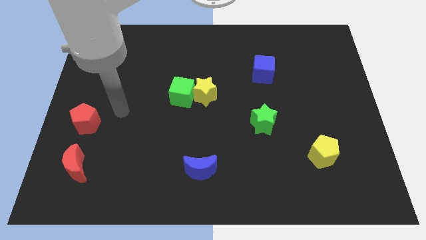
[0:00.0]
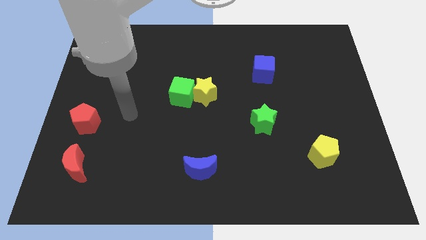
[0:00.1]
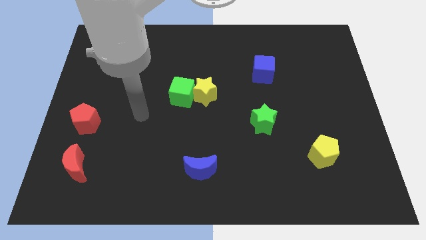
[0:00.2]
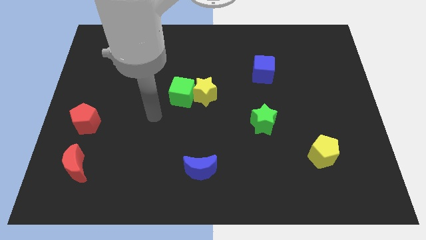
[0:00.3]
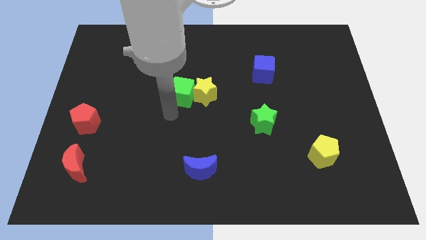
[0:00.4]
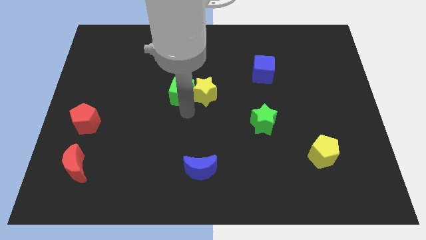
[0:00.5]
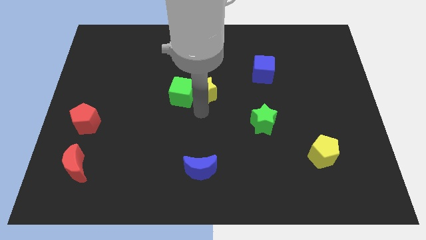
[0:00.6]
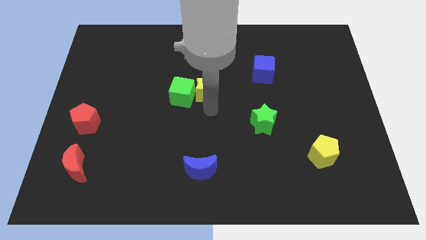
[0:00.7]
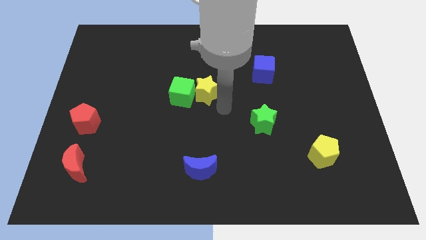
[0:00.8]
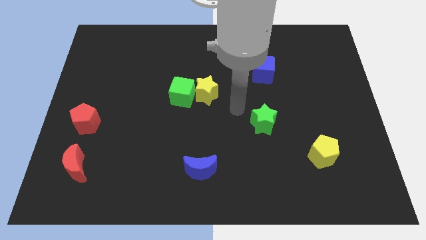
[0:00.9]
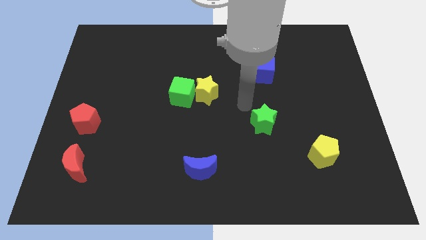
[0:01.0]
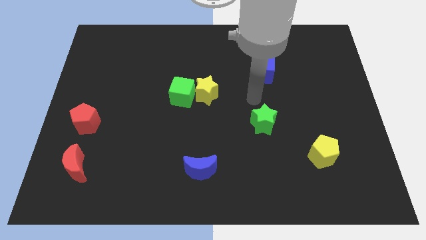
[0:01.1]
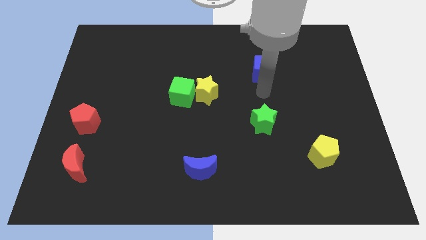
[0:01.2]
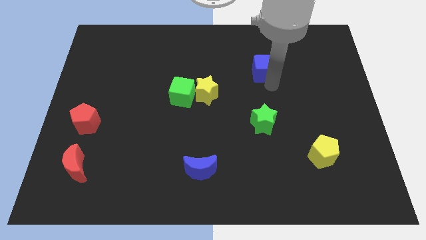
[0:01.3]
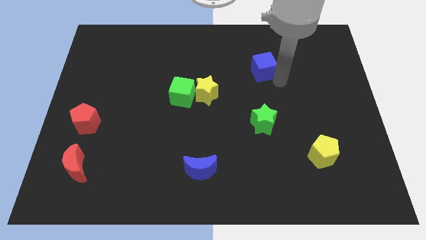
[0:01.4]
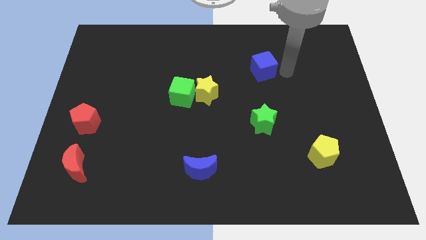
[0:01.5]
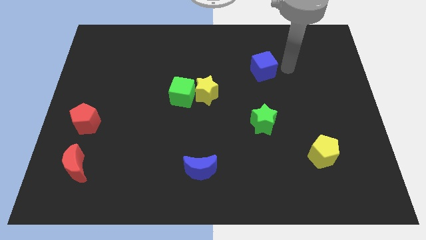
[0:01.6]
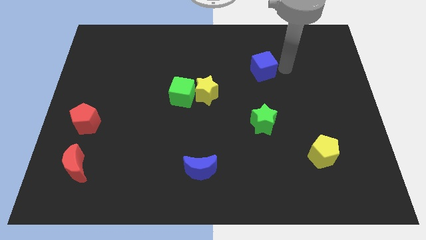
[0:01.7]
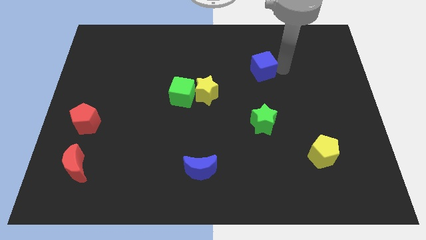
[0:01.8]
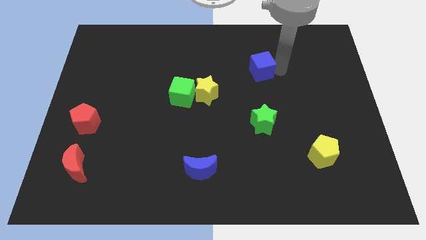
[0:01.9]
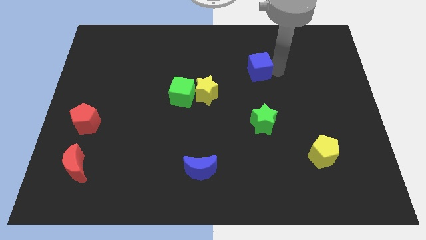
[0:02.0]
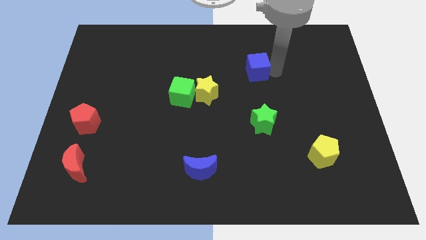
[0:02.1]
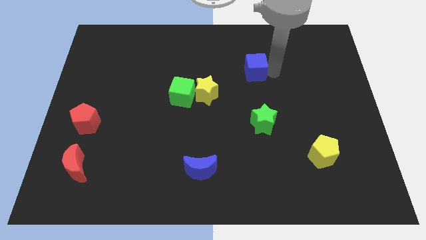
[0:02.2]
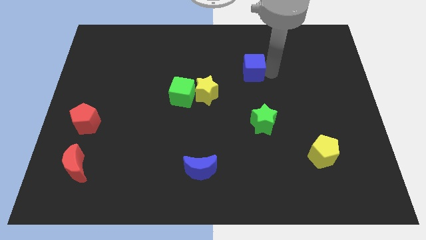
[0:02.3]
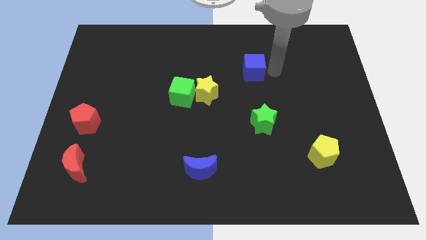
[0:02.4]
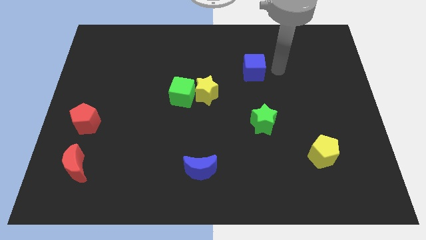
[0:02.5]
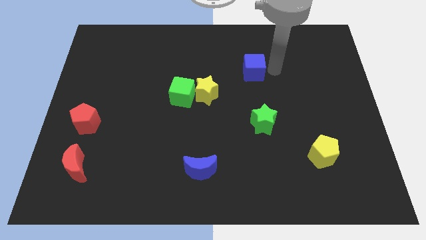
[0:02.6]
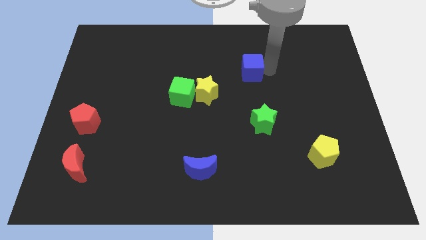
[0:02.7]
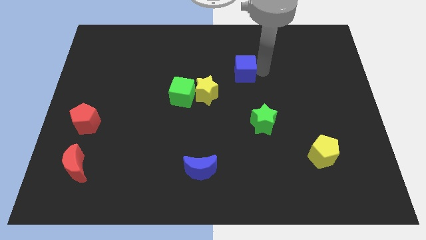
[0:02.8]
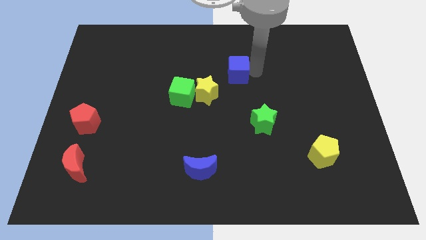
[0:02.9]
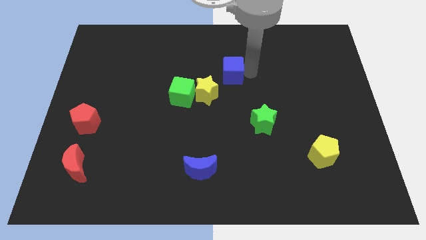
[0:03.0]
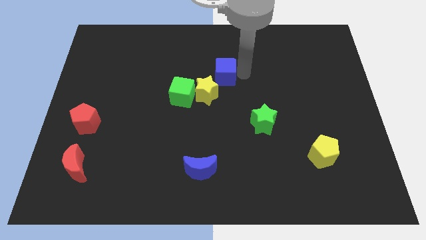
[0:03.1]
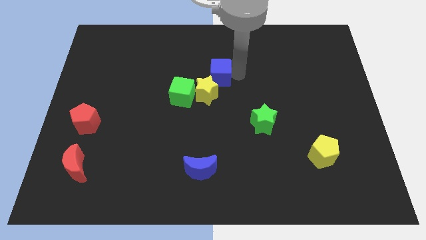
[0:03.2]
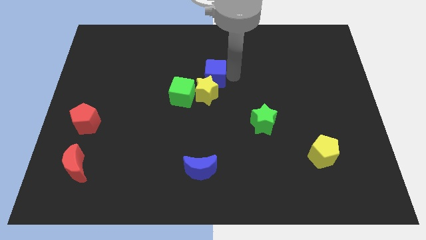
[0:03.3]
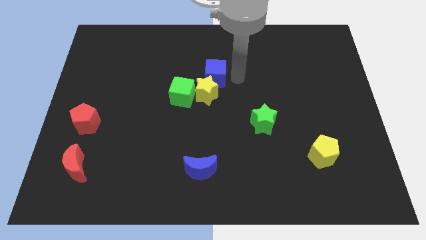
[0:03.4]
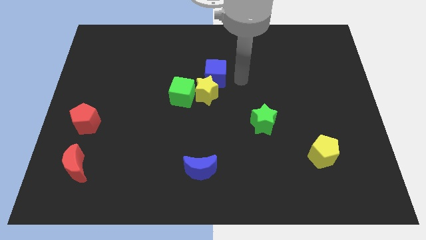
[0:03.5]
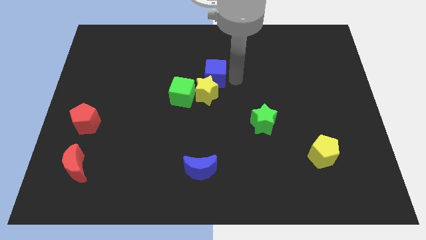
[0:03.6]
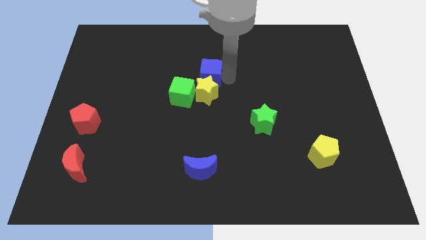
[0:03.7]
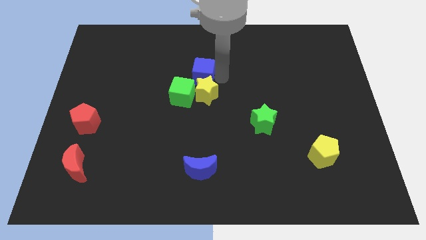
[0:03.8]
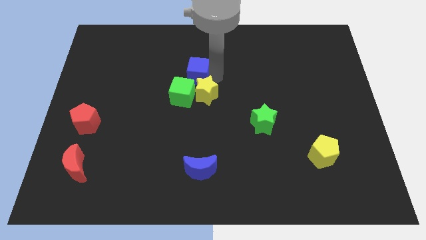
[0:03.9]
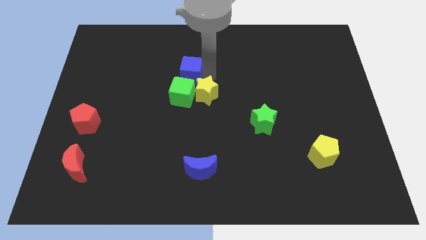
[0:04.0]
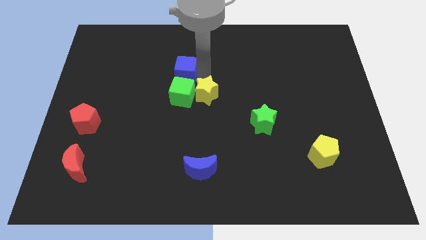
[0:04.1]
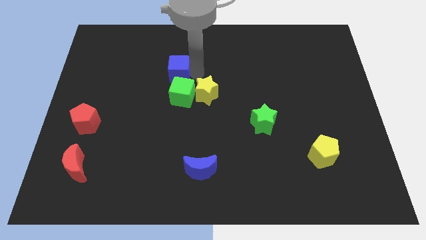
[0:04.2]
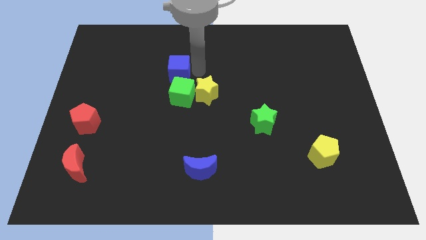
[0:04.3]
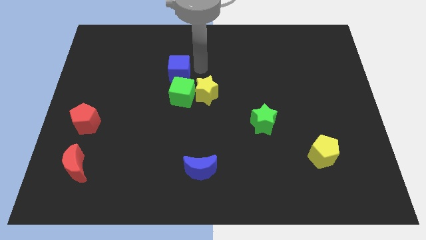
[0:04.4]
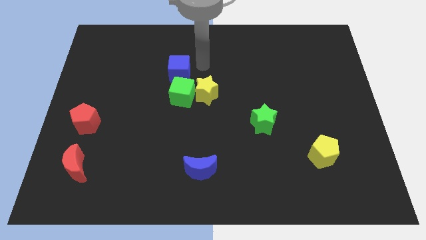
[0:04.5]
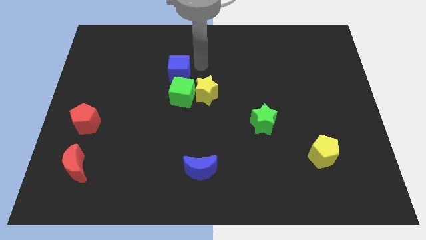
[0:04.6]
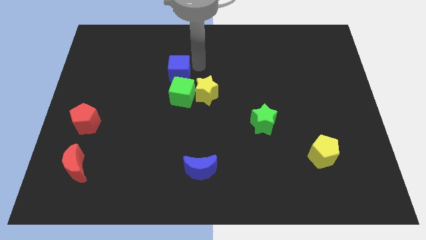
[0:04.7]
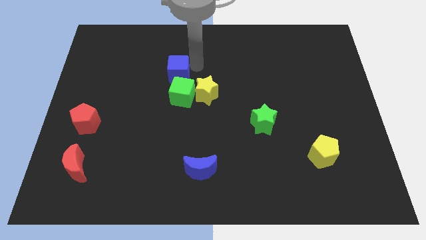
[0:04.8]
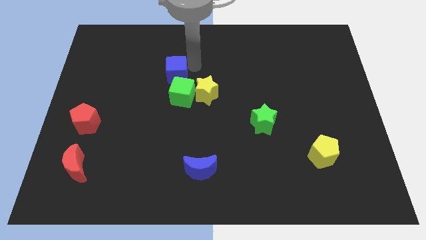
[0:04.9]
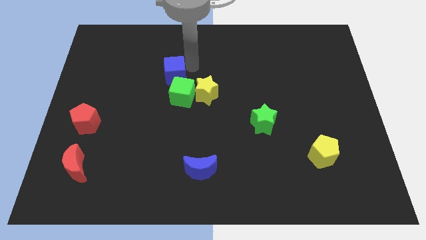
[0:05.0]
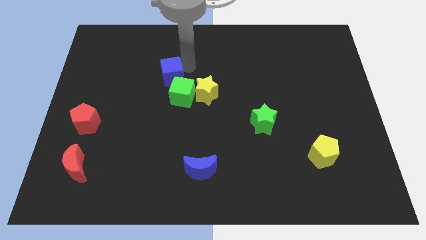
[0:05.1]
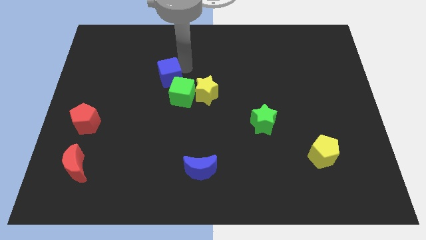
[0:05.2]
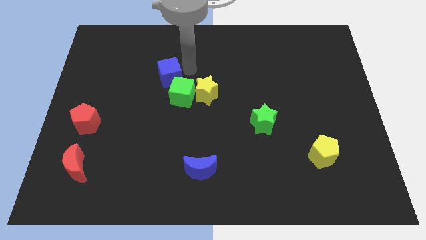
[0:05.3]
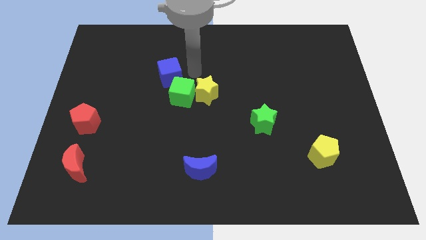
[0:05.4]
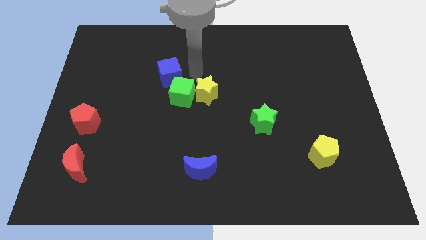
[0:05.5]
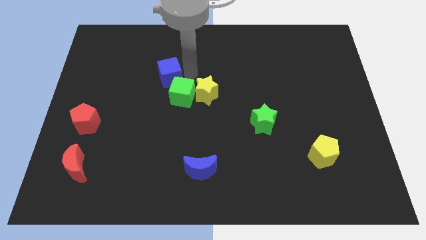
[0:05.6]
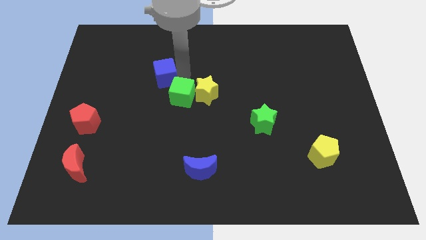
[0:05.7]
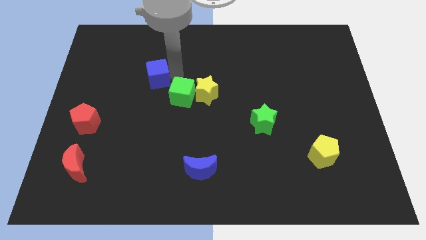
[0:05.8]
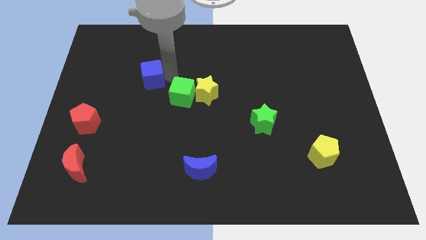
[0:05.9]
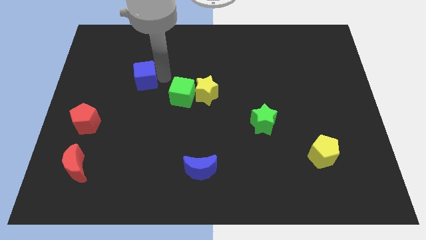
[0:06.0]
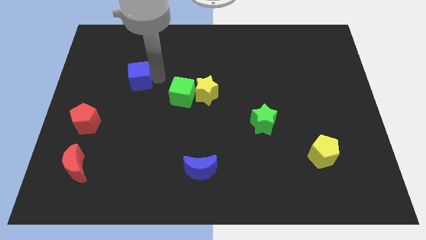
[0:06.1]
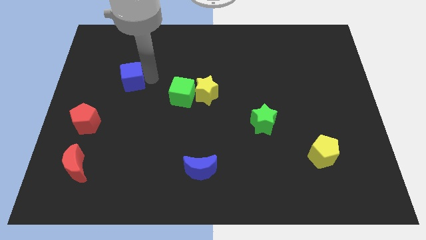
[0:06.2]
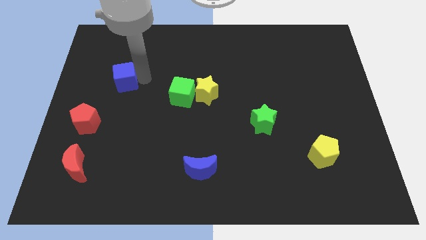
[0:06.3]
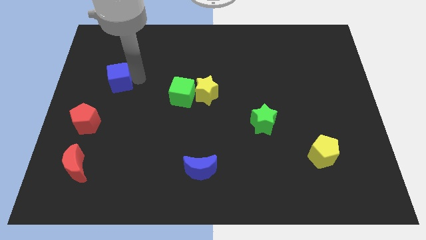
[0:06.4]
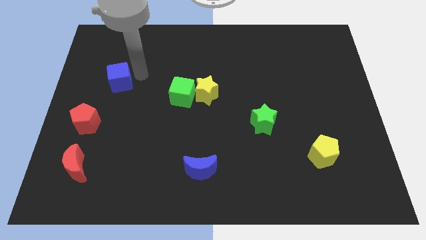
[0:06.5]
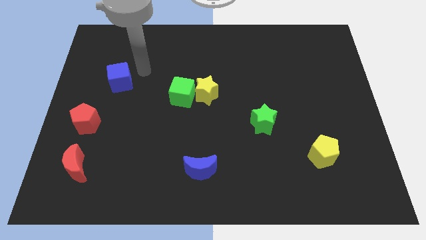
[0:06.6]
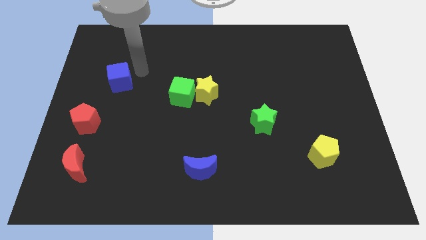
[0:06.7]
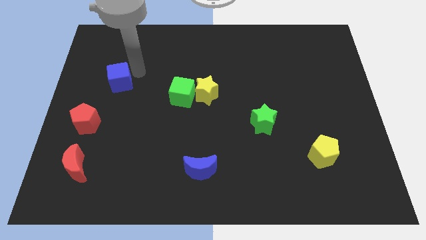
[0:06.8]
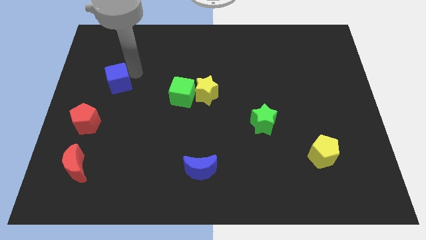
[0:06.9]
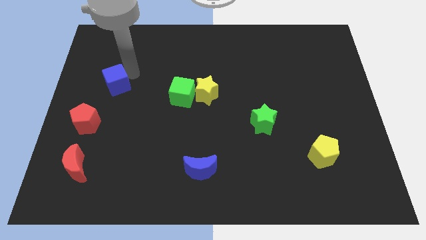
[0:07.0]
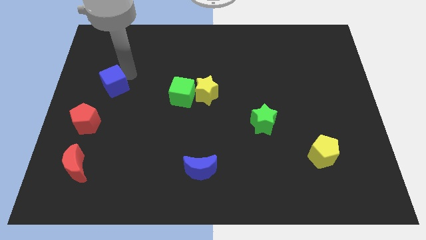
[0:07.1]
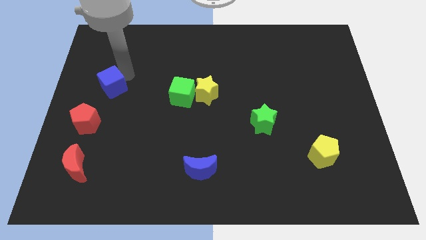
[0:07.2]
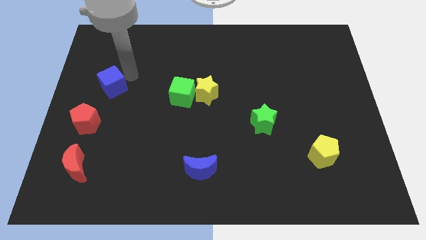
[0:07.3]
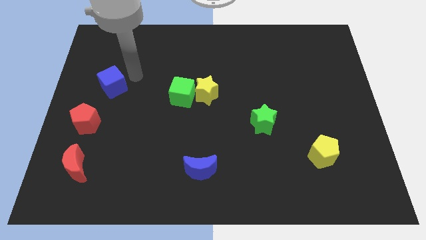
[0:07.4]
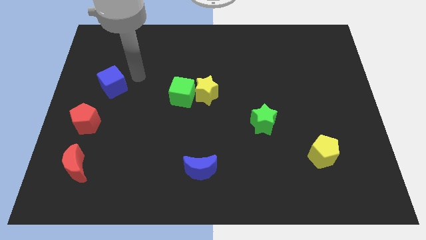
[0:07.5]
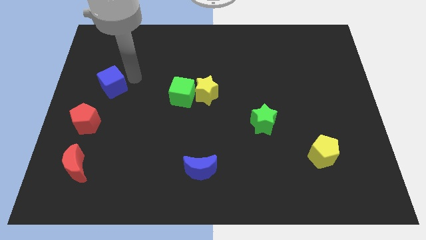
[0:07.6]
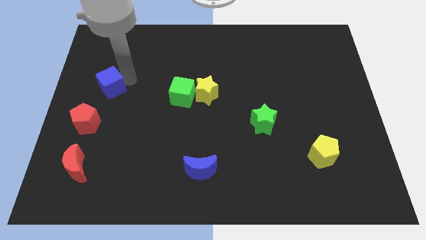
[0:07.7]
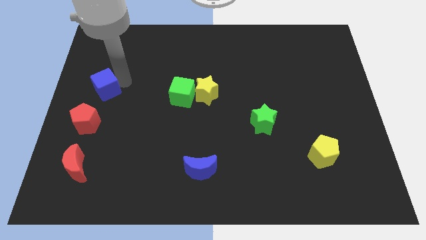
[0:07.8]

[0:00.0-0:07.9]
push the blue cube to the left side of the board
